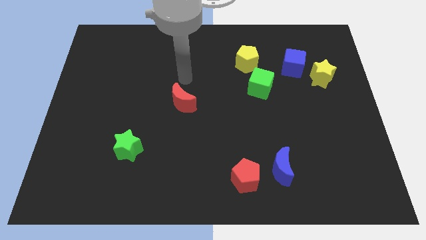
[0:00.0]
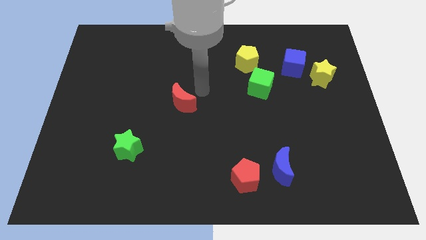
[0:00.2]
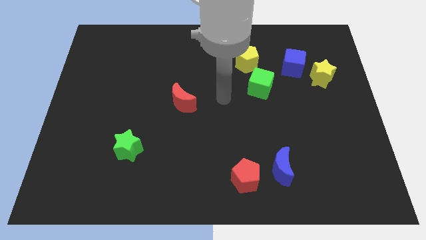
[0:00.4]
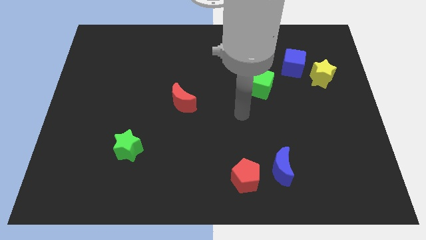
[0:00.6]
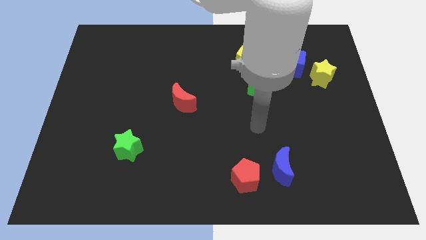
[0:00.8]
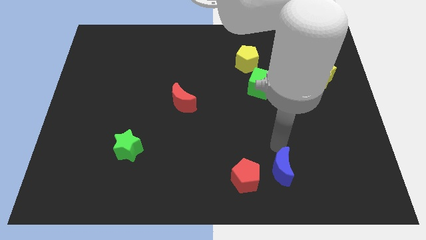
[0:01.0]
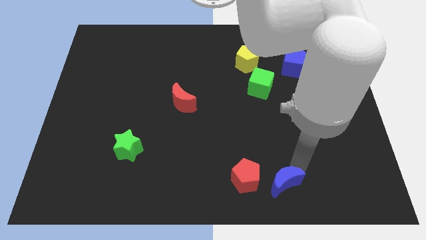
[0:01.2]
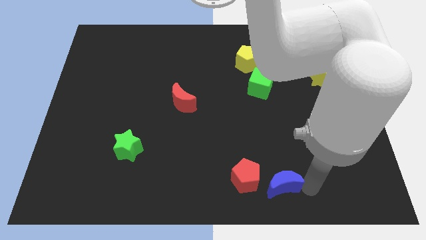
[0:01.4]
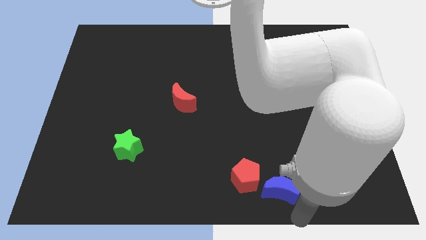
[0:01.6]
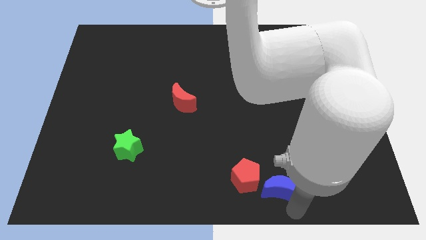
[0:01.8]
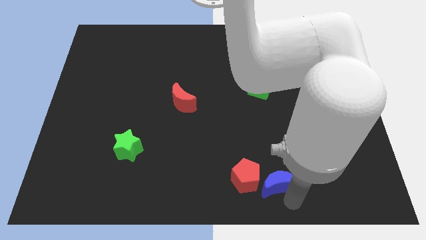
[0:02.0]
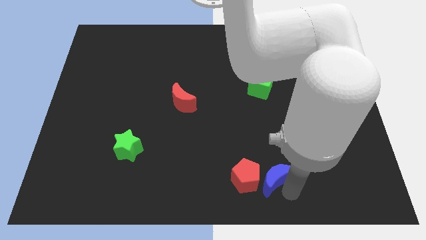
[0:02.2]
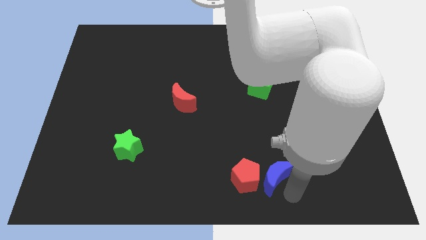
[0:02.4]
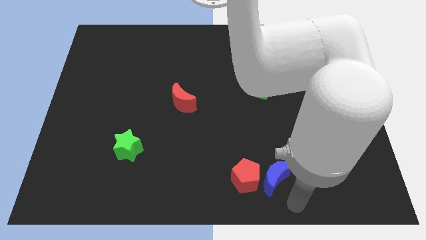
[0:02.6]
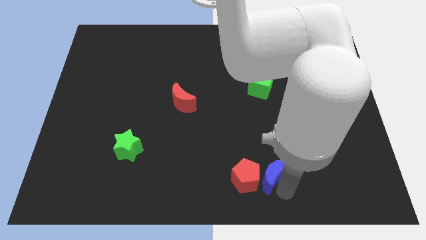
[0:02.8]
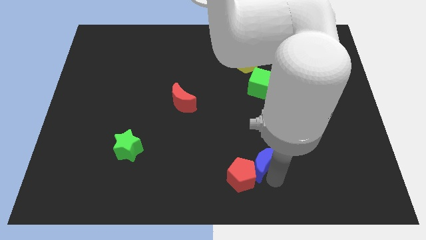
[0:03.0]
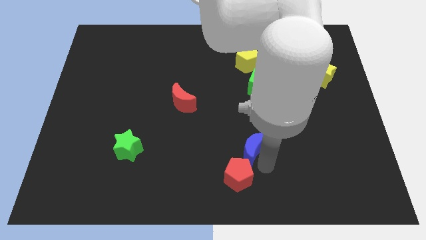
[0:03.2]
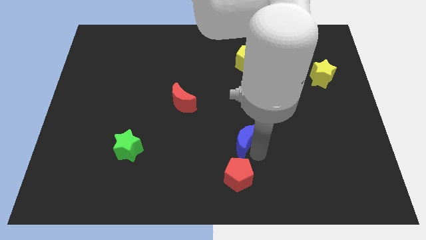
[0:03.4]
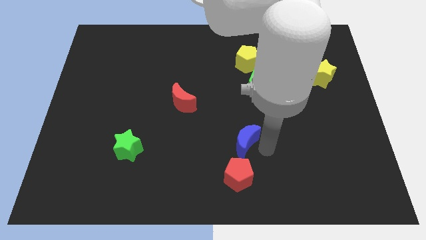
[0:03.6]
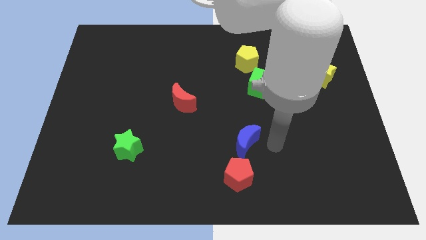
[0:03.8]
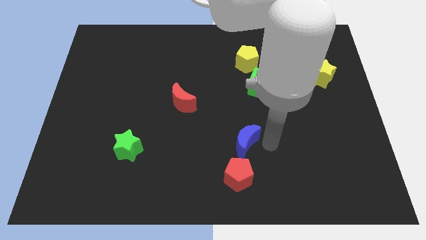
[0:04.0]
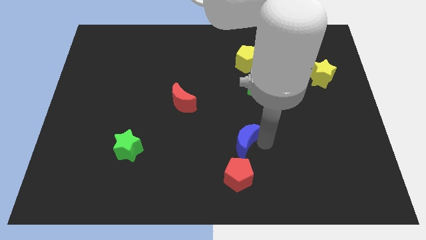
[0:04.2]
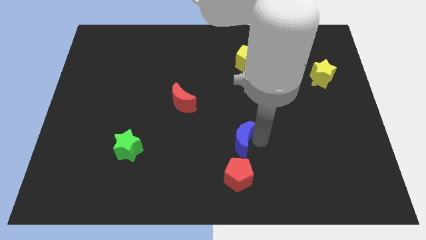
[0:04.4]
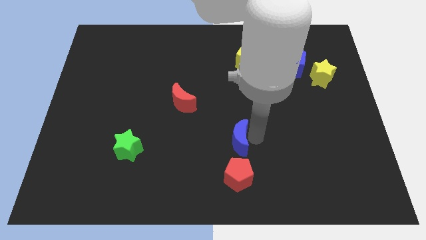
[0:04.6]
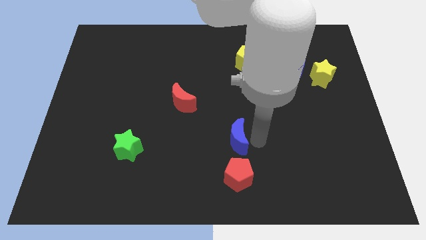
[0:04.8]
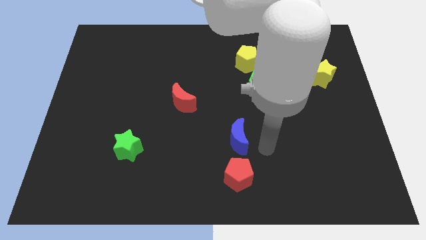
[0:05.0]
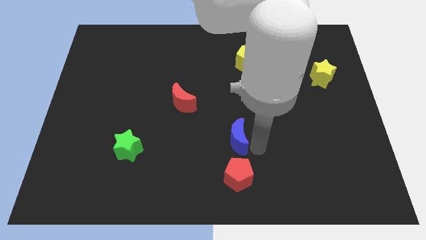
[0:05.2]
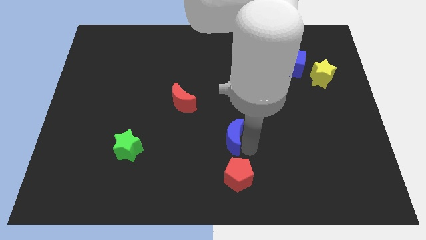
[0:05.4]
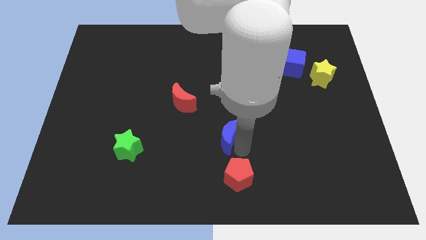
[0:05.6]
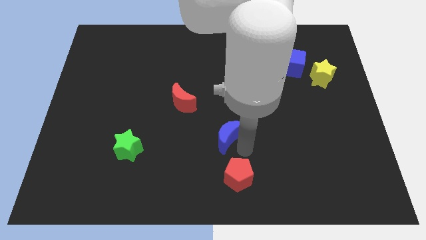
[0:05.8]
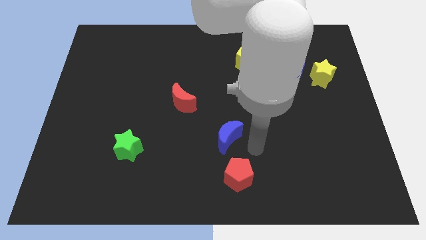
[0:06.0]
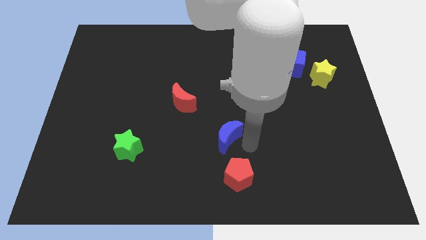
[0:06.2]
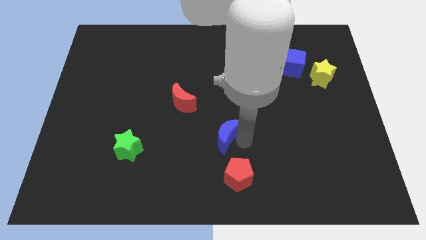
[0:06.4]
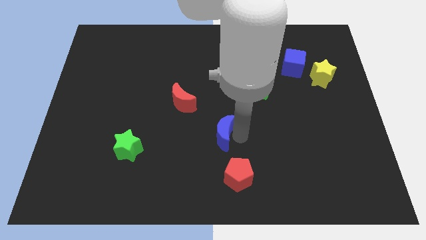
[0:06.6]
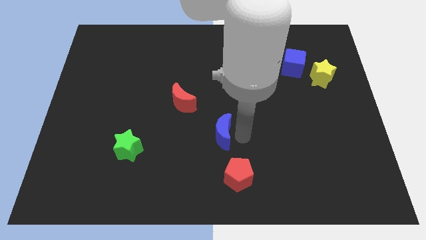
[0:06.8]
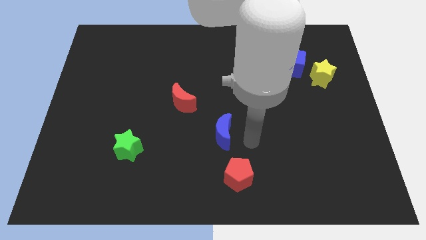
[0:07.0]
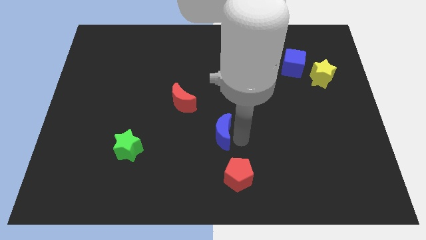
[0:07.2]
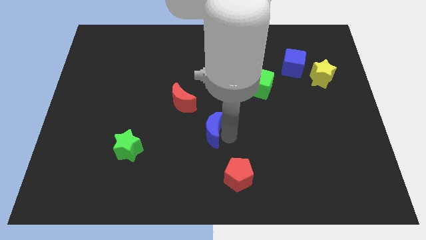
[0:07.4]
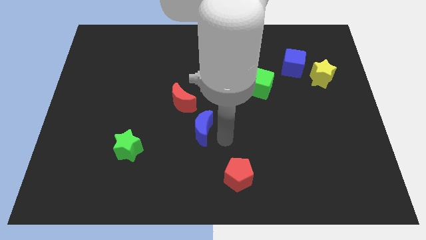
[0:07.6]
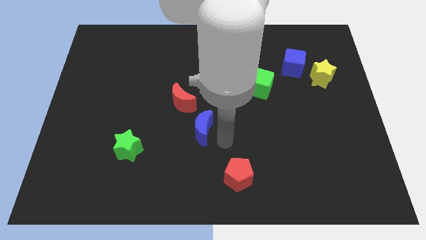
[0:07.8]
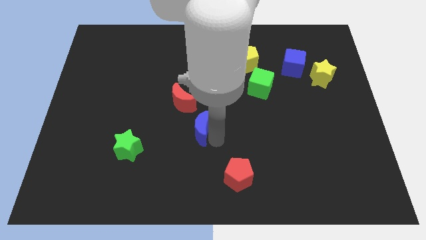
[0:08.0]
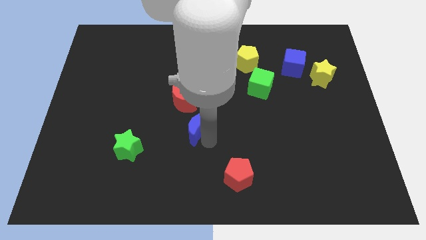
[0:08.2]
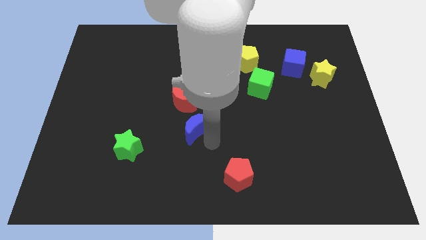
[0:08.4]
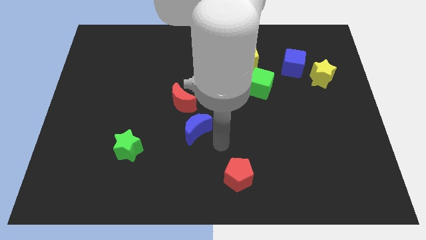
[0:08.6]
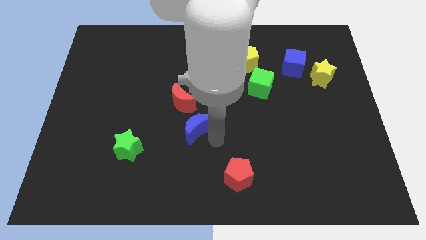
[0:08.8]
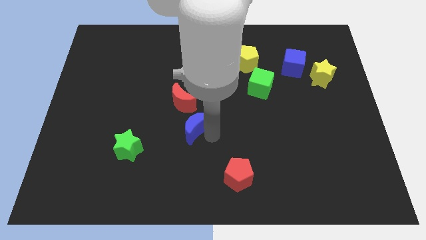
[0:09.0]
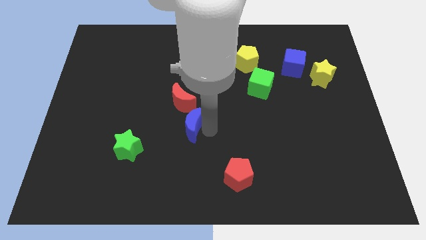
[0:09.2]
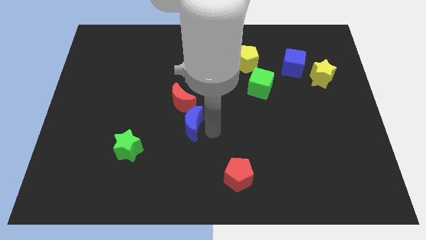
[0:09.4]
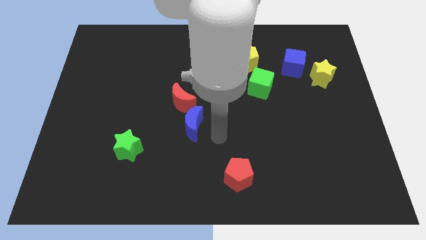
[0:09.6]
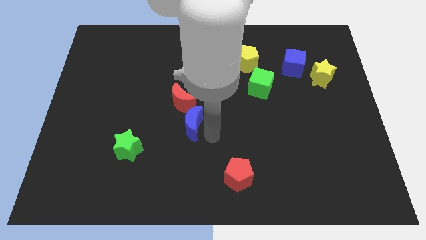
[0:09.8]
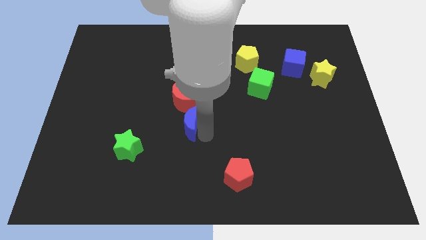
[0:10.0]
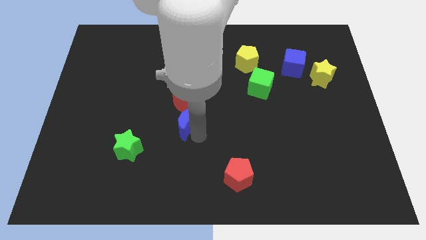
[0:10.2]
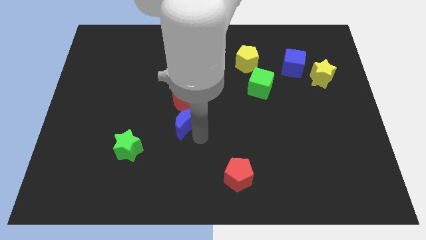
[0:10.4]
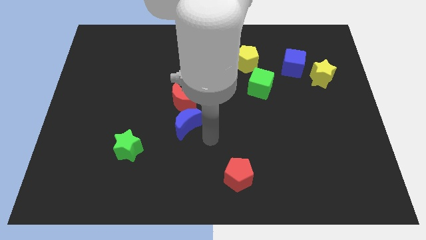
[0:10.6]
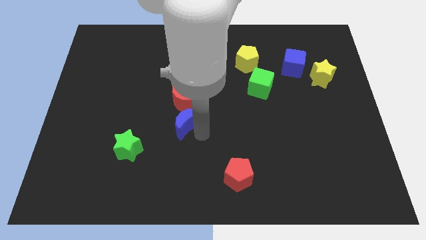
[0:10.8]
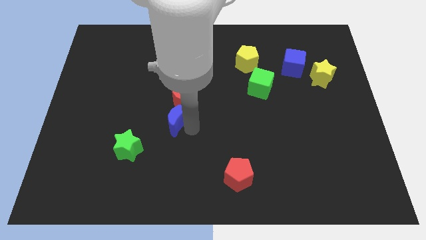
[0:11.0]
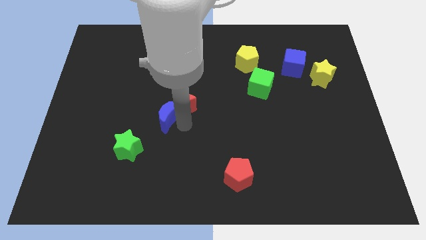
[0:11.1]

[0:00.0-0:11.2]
put the blue moon left of the red moon

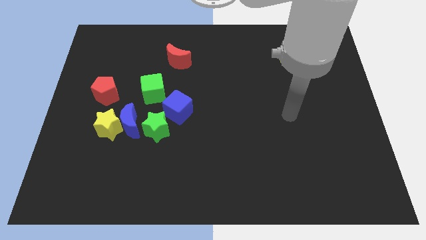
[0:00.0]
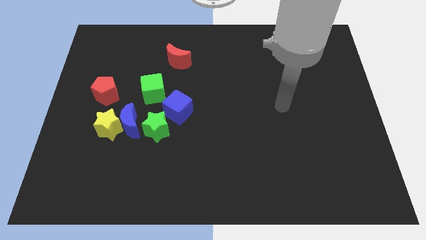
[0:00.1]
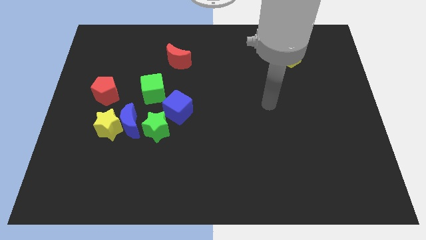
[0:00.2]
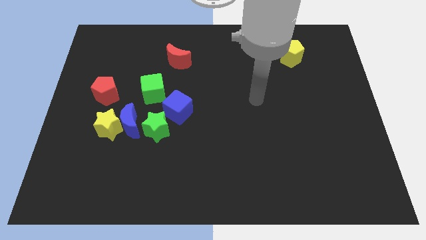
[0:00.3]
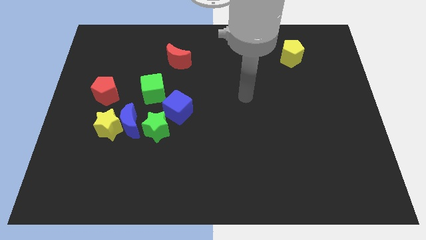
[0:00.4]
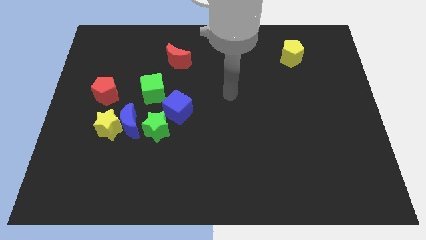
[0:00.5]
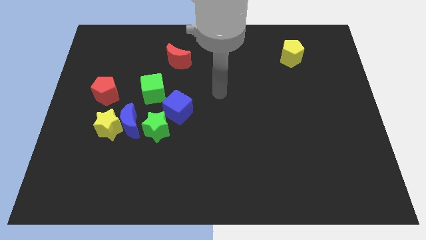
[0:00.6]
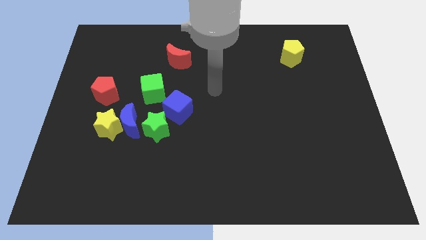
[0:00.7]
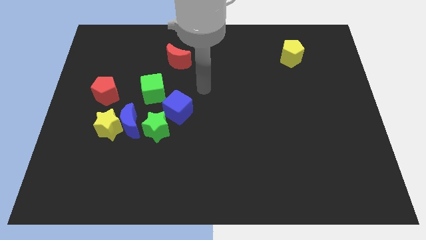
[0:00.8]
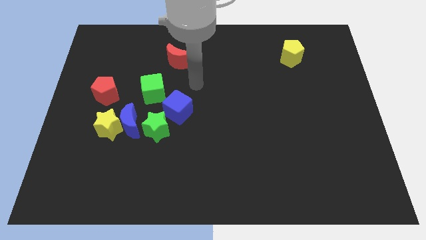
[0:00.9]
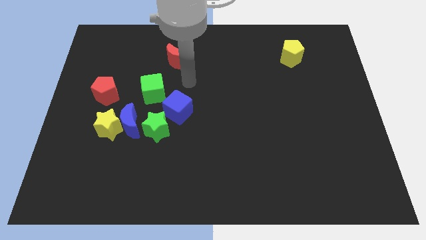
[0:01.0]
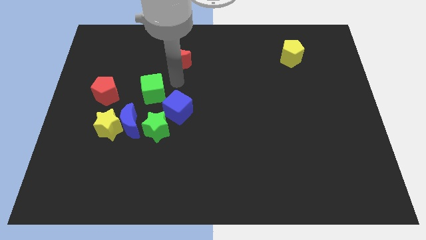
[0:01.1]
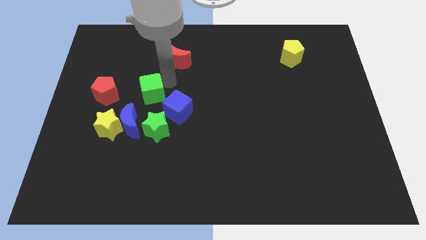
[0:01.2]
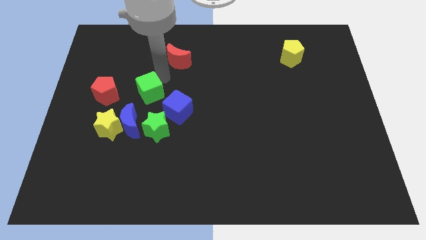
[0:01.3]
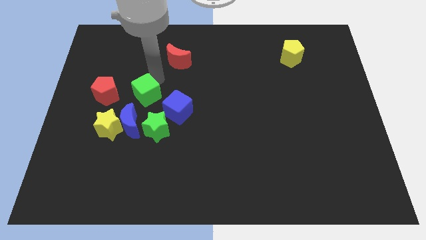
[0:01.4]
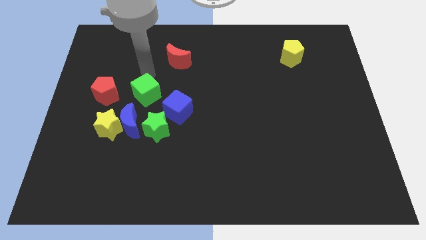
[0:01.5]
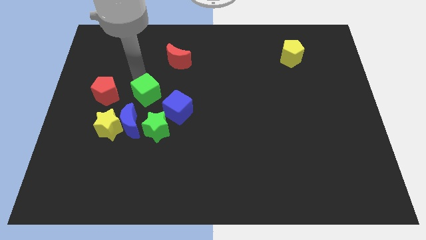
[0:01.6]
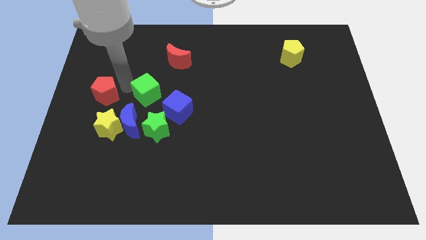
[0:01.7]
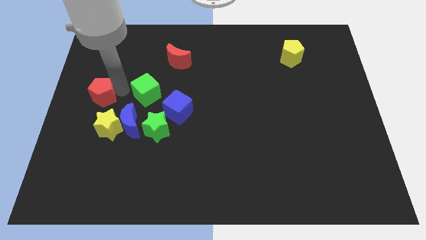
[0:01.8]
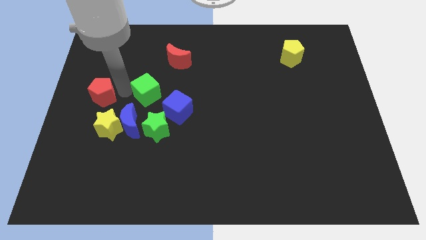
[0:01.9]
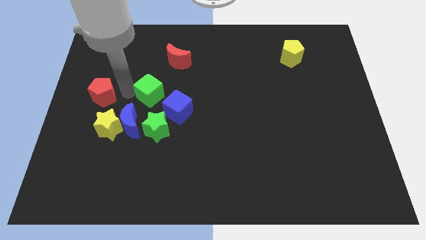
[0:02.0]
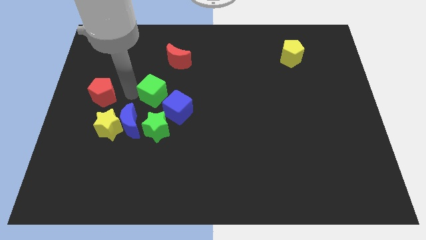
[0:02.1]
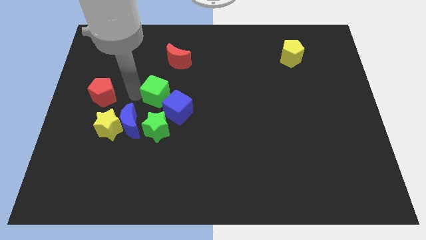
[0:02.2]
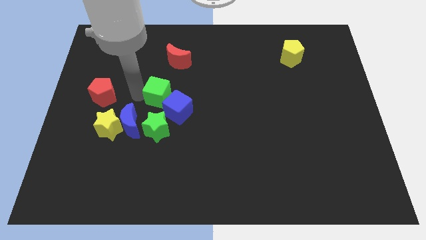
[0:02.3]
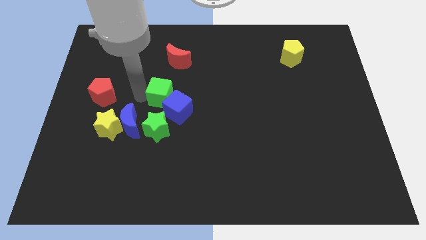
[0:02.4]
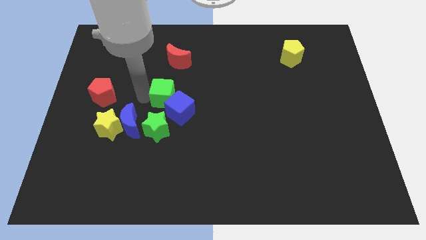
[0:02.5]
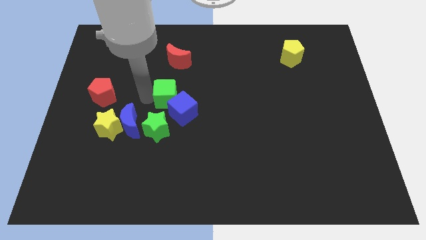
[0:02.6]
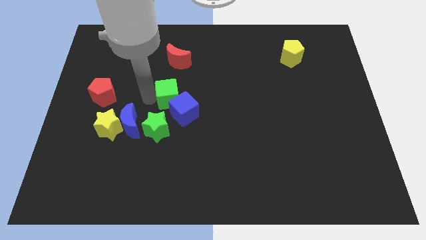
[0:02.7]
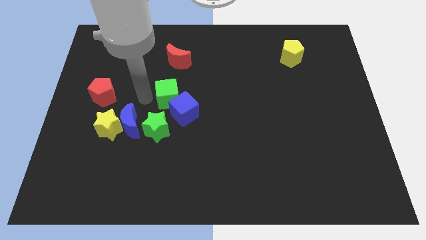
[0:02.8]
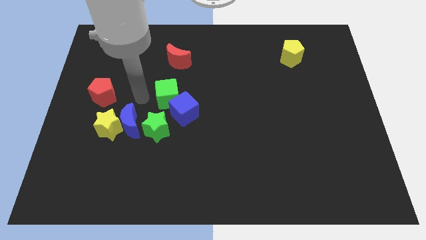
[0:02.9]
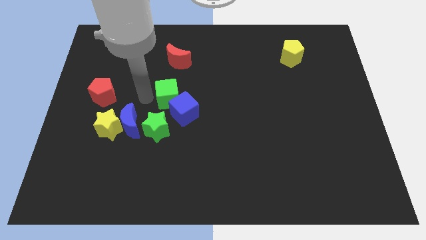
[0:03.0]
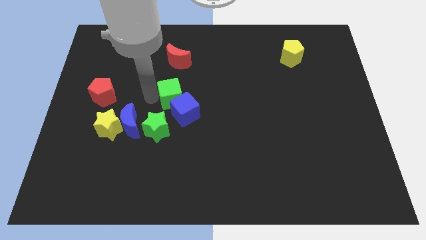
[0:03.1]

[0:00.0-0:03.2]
move the green cube diagonally up and to the right of the green star
